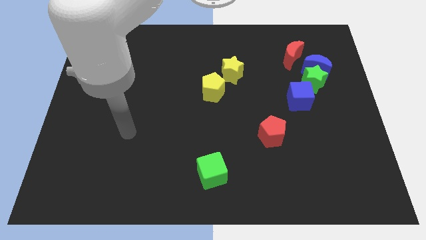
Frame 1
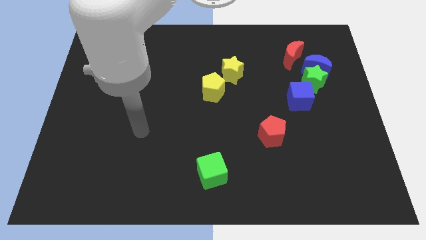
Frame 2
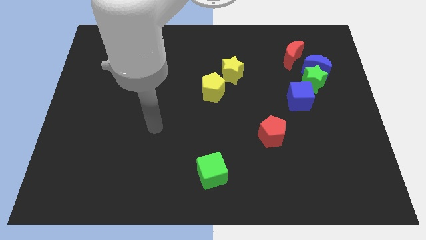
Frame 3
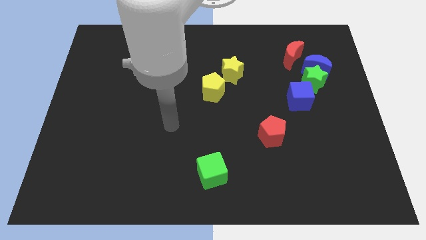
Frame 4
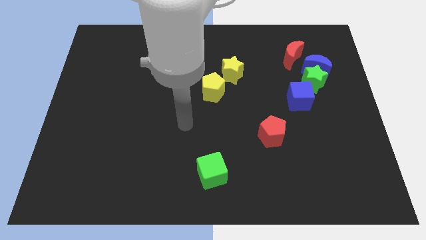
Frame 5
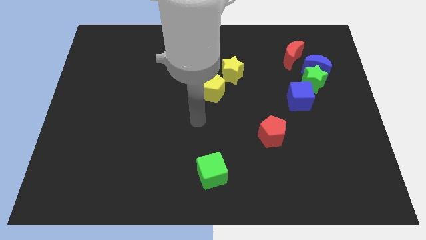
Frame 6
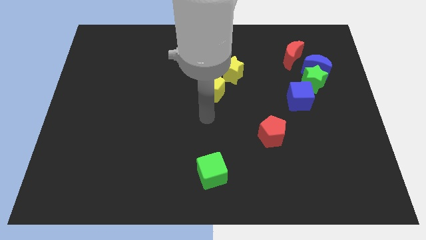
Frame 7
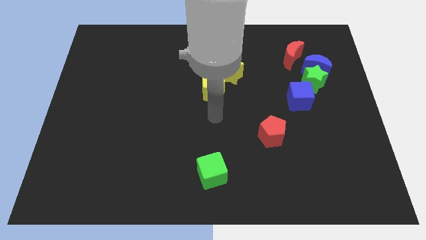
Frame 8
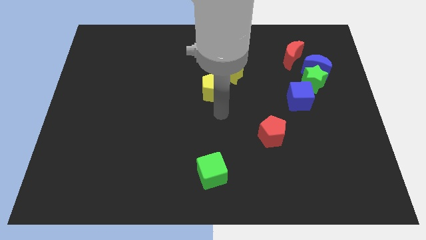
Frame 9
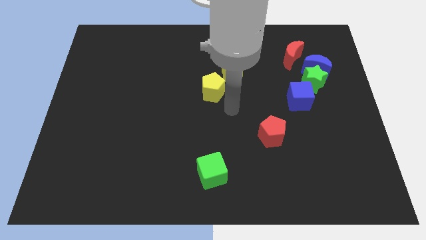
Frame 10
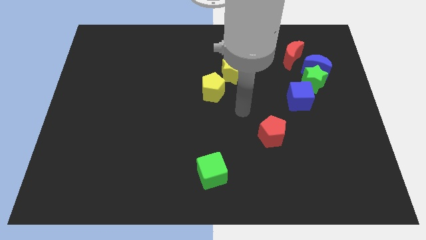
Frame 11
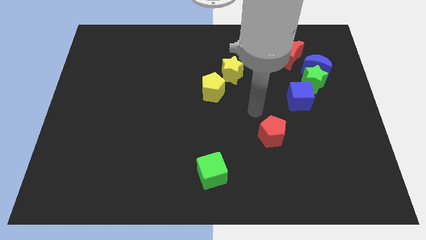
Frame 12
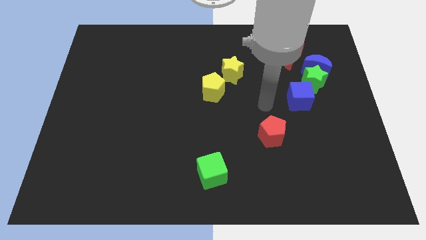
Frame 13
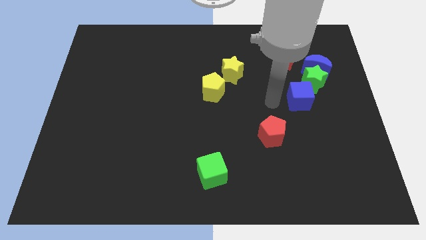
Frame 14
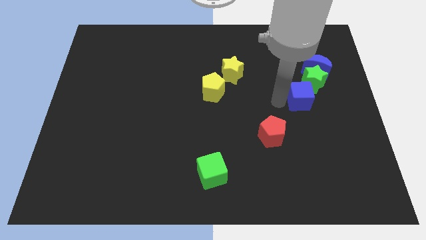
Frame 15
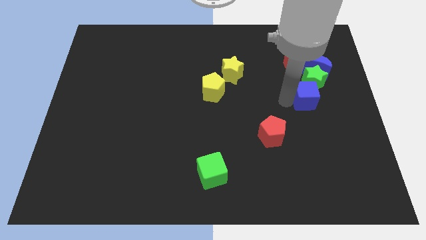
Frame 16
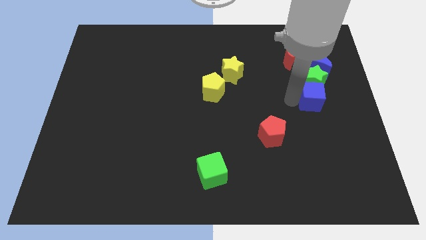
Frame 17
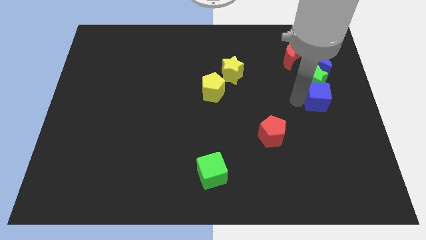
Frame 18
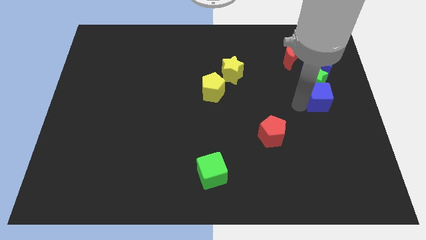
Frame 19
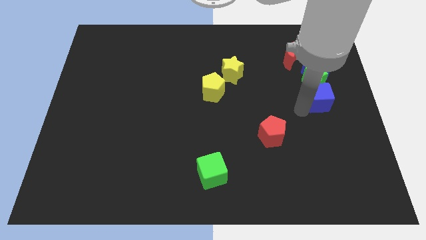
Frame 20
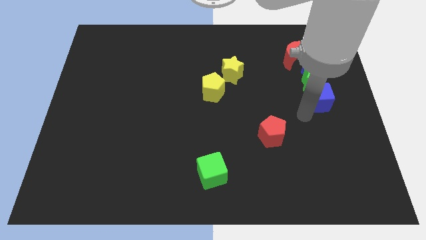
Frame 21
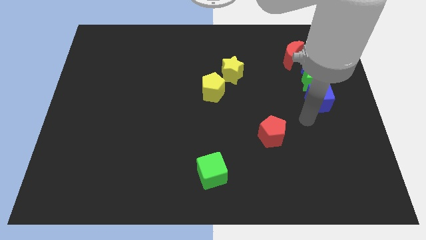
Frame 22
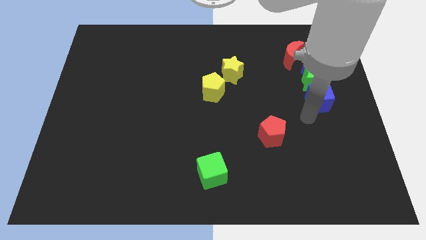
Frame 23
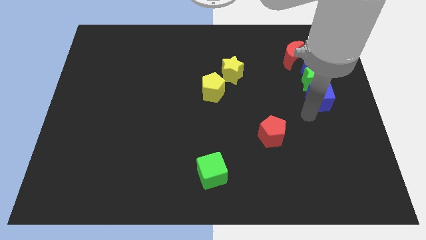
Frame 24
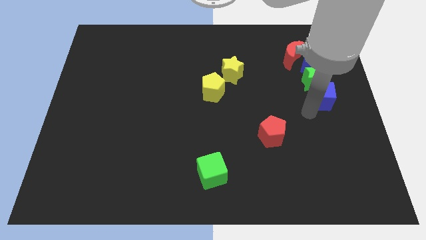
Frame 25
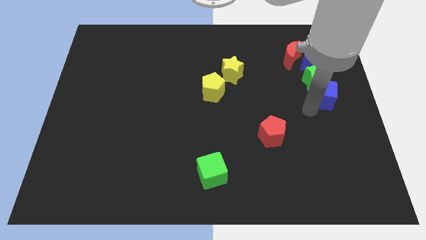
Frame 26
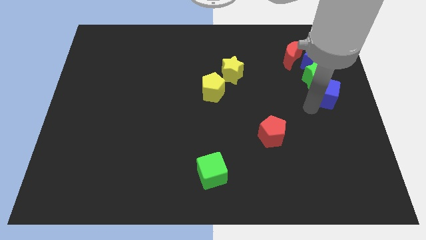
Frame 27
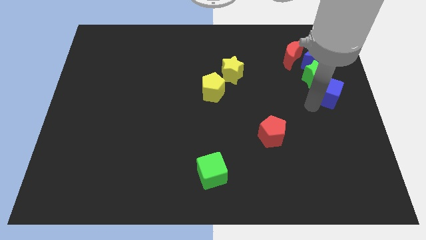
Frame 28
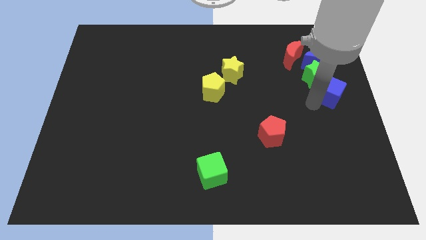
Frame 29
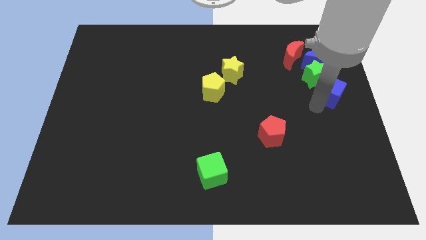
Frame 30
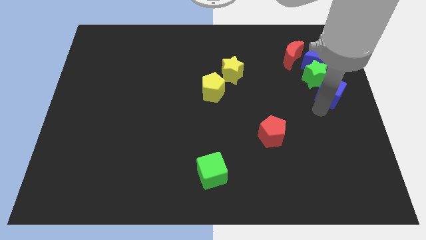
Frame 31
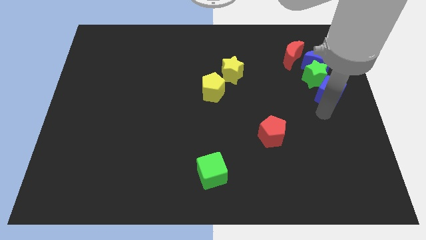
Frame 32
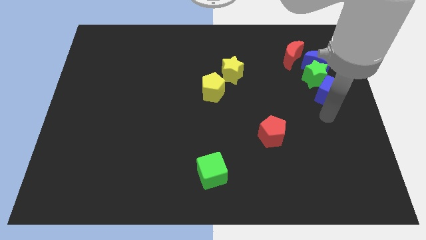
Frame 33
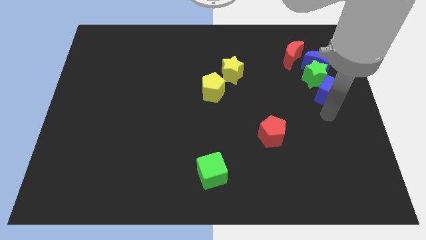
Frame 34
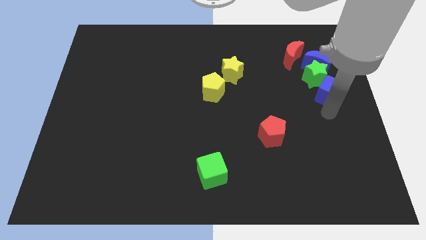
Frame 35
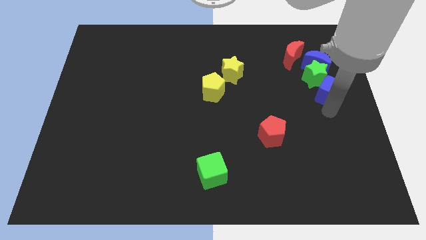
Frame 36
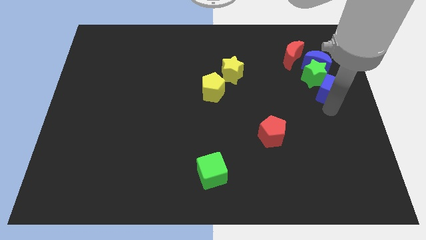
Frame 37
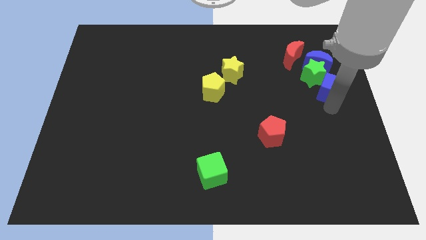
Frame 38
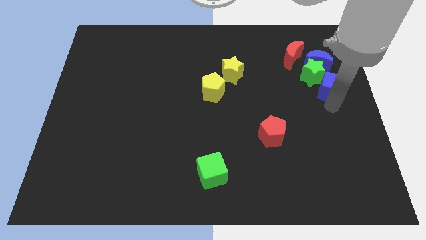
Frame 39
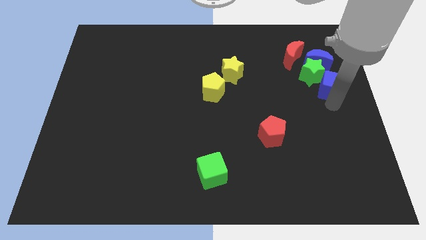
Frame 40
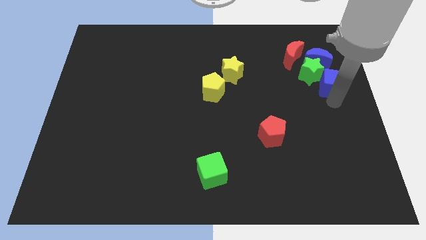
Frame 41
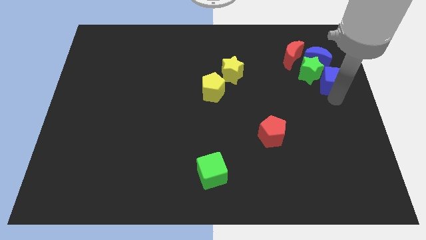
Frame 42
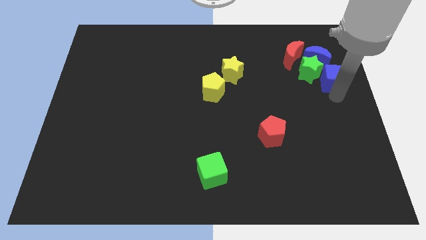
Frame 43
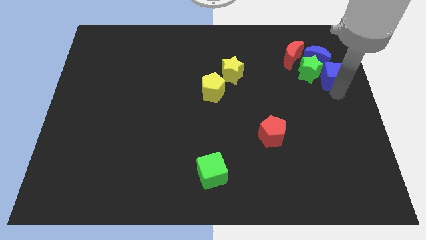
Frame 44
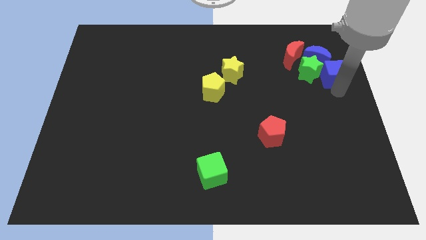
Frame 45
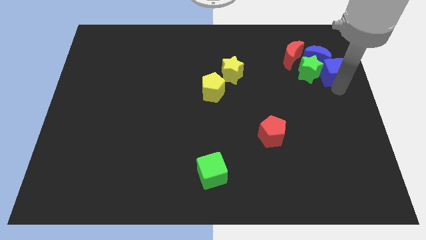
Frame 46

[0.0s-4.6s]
put the blue cube to the blue moon

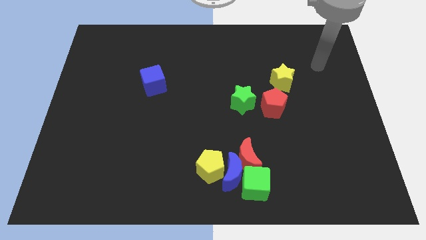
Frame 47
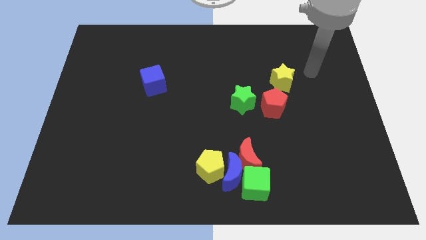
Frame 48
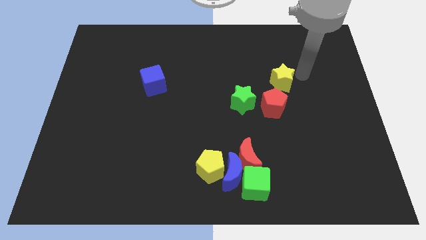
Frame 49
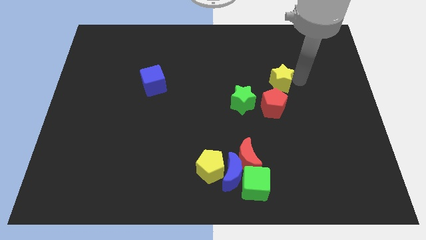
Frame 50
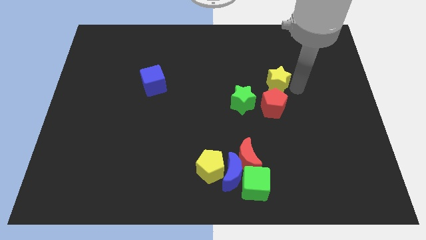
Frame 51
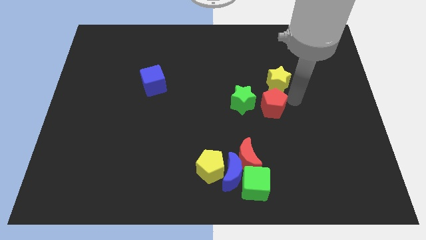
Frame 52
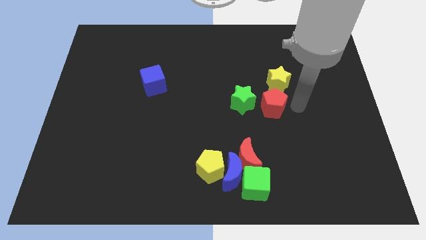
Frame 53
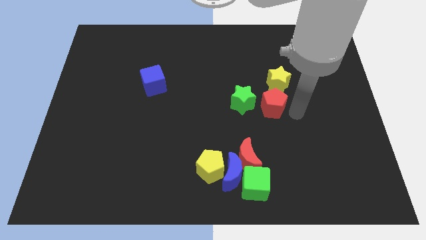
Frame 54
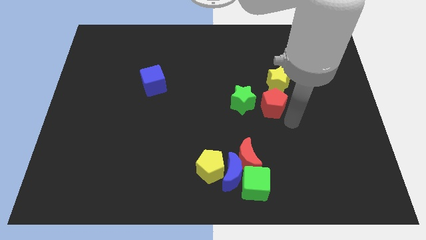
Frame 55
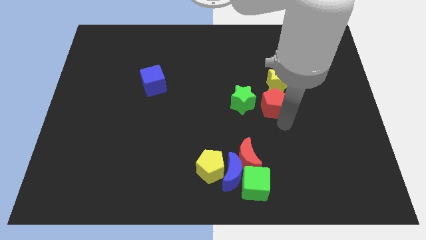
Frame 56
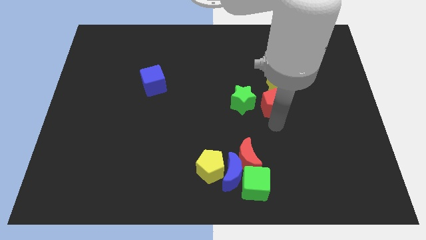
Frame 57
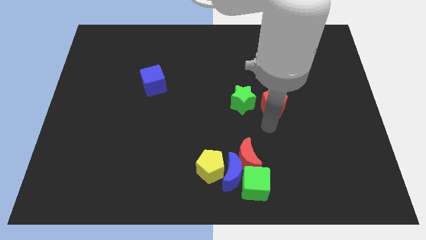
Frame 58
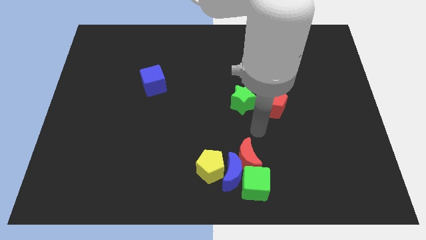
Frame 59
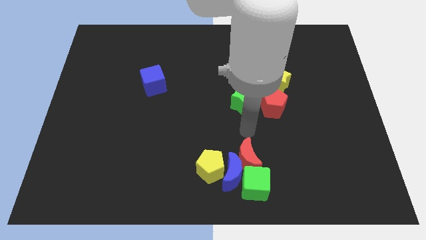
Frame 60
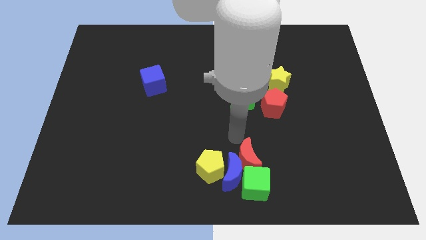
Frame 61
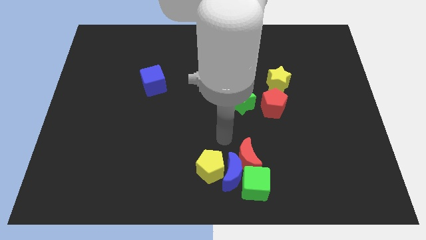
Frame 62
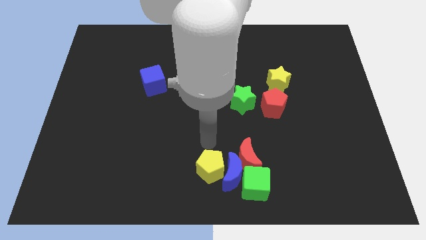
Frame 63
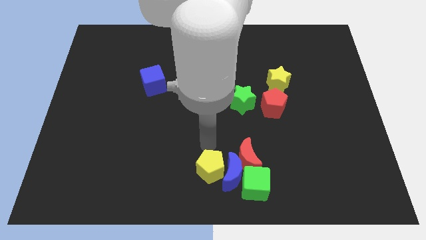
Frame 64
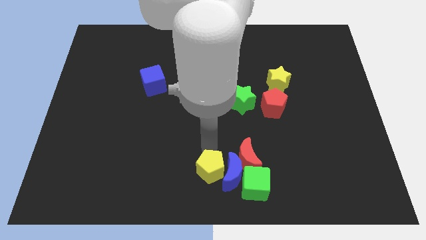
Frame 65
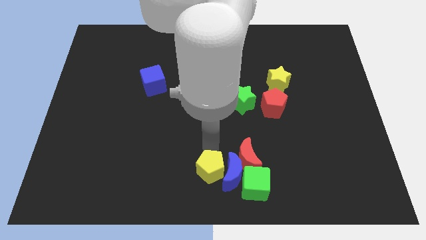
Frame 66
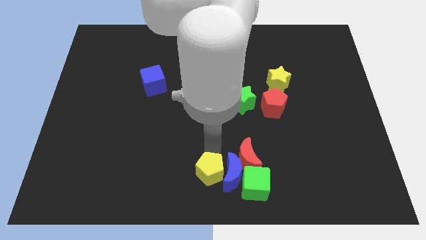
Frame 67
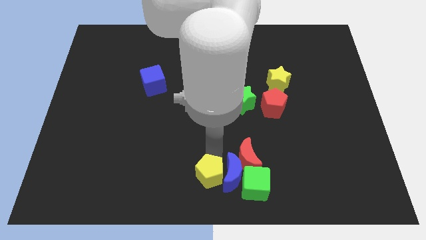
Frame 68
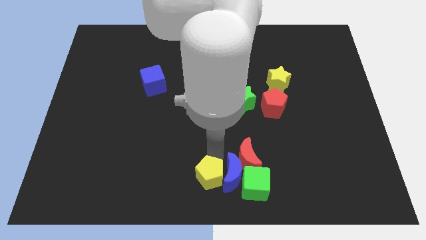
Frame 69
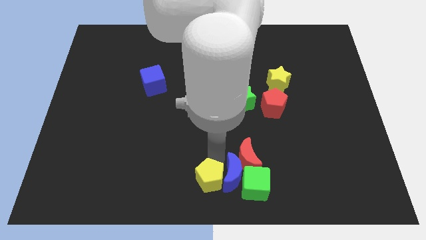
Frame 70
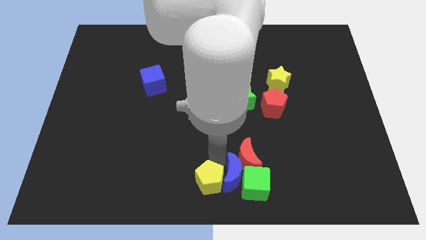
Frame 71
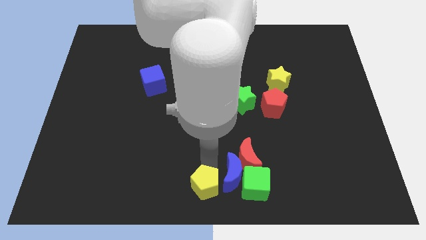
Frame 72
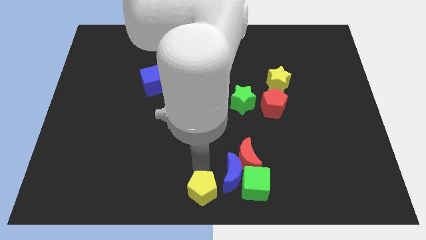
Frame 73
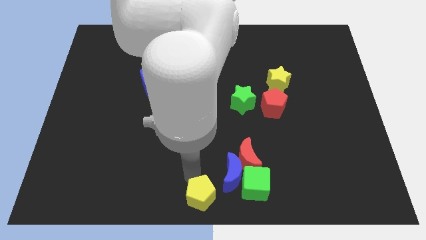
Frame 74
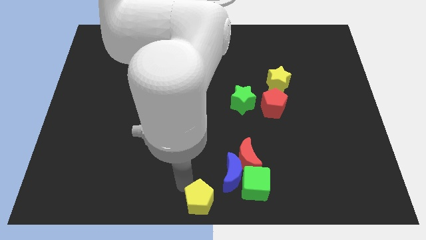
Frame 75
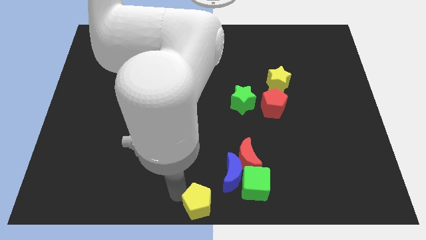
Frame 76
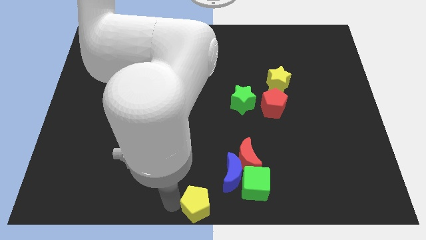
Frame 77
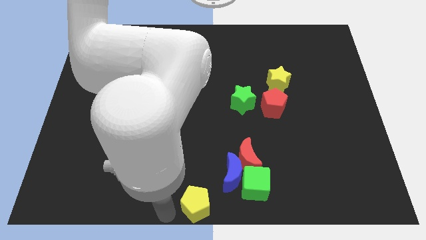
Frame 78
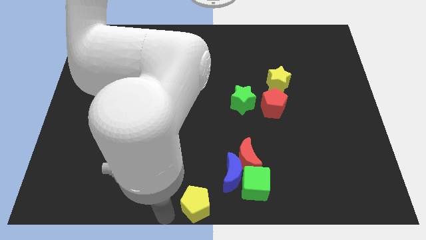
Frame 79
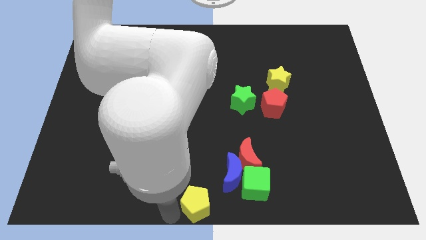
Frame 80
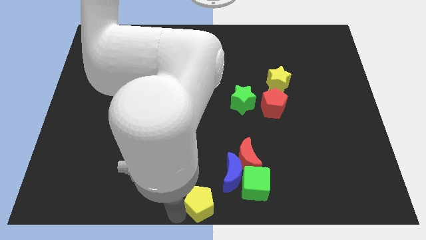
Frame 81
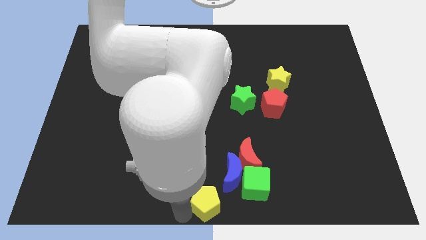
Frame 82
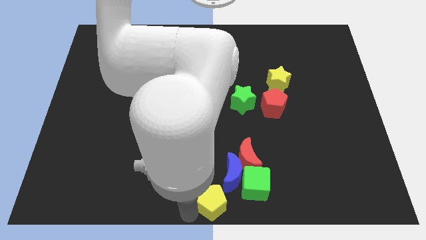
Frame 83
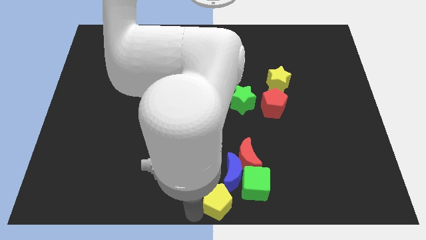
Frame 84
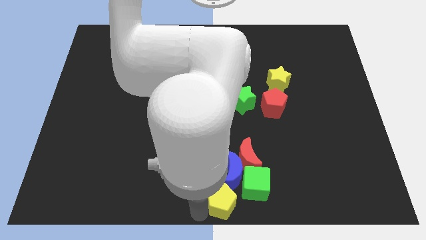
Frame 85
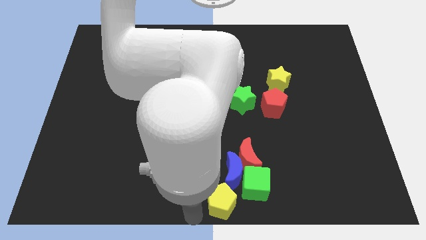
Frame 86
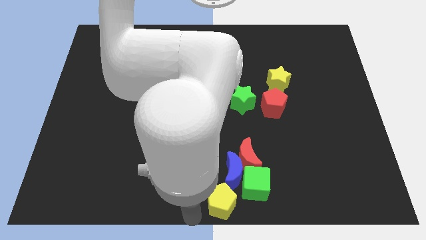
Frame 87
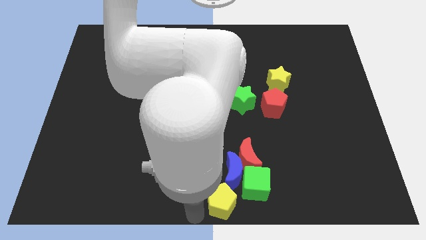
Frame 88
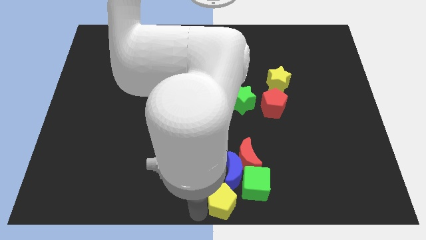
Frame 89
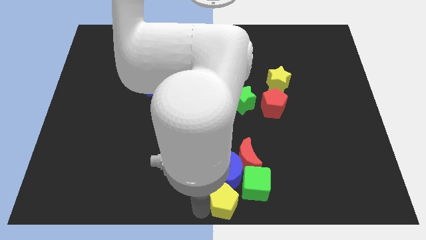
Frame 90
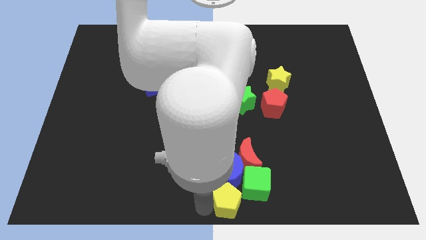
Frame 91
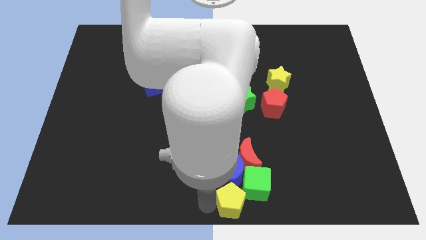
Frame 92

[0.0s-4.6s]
slide the yellow pentagon towards the green cube
